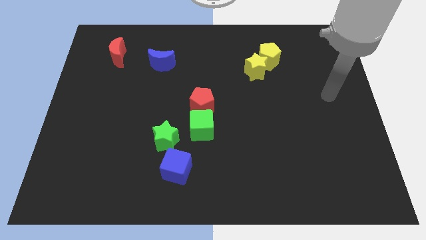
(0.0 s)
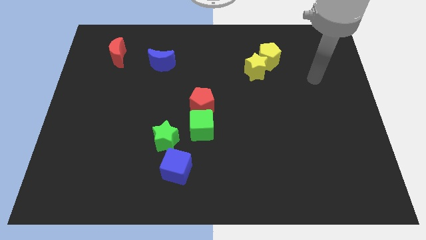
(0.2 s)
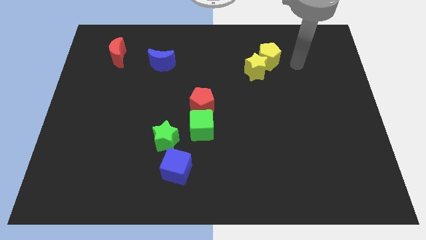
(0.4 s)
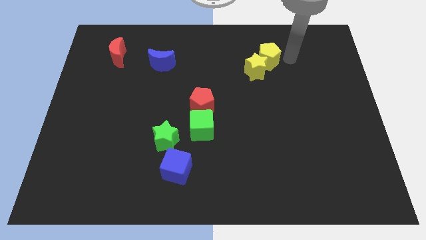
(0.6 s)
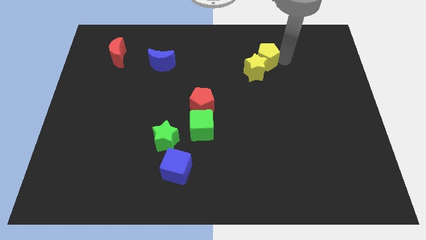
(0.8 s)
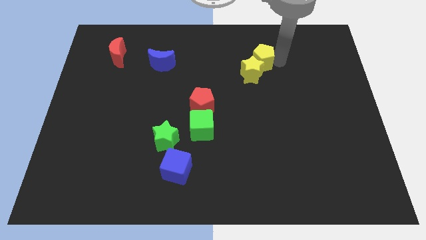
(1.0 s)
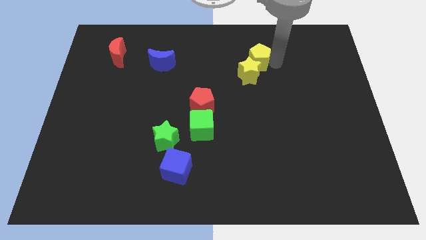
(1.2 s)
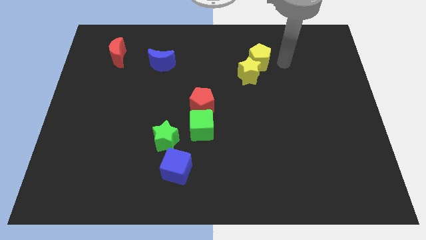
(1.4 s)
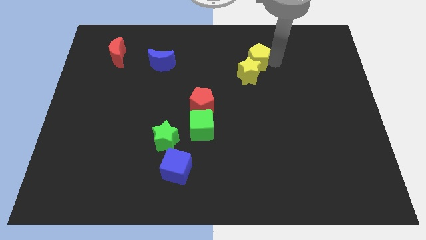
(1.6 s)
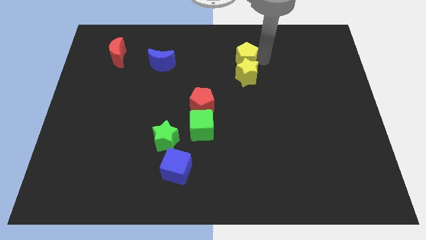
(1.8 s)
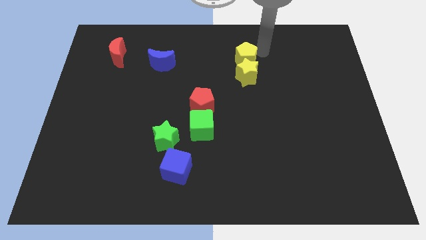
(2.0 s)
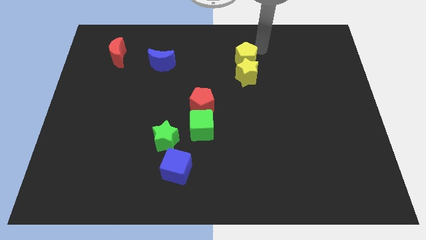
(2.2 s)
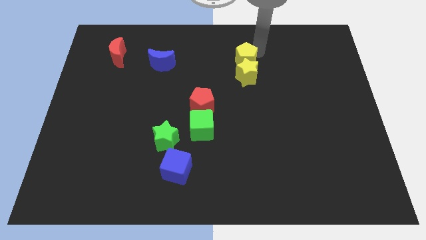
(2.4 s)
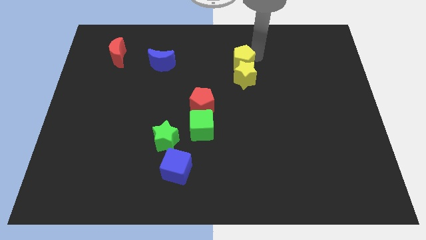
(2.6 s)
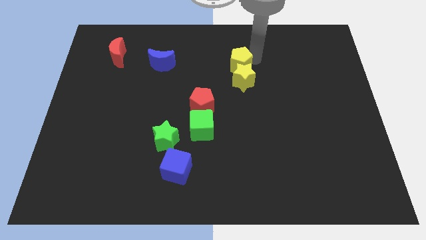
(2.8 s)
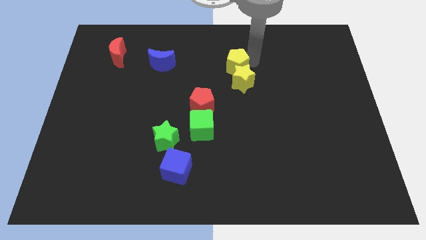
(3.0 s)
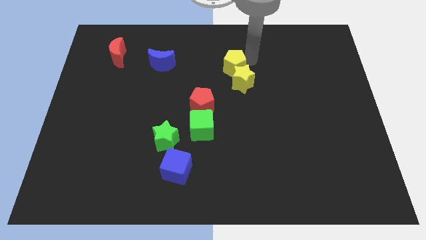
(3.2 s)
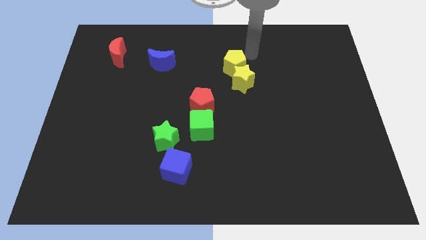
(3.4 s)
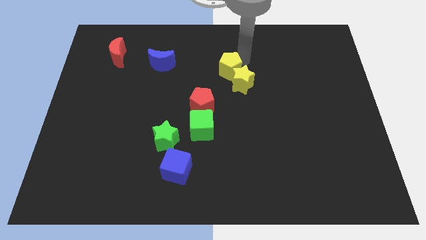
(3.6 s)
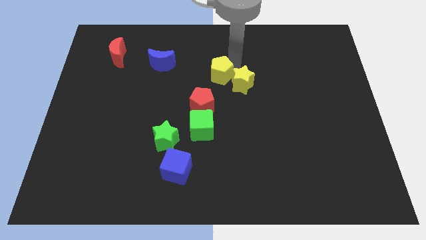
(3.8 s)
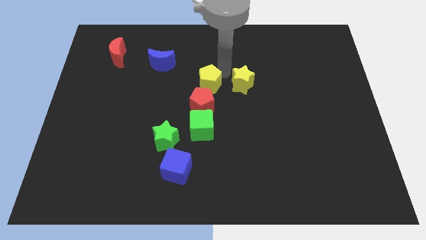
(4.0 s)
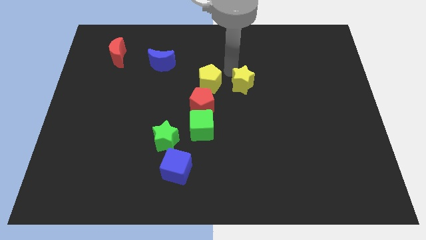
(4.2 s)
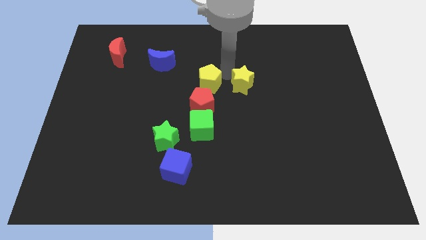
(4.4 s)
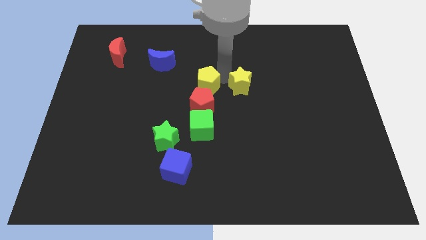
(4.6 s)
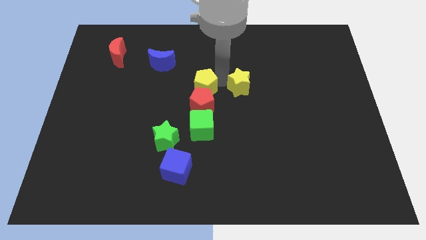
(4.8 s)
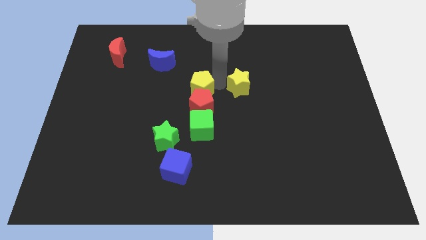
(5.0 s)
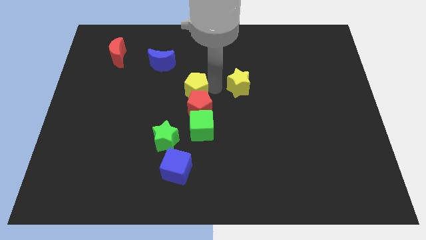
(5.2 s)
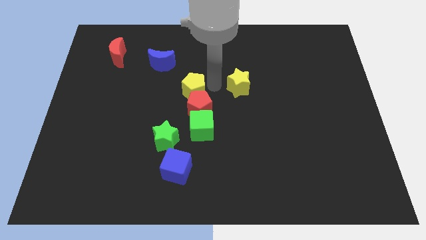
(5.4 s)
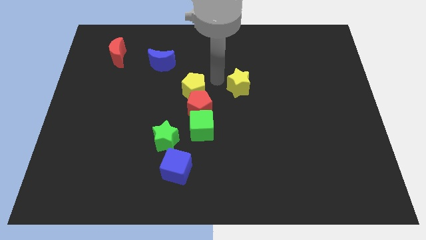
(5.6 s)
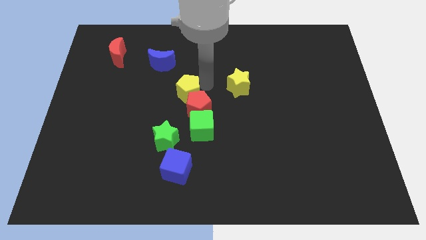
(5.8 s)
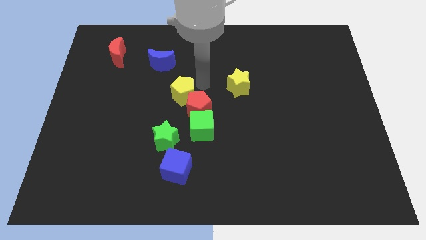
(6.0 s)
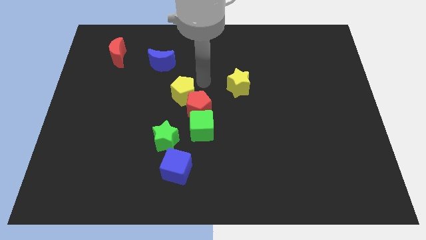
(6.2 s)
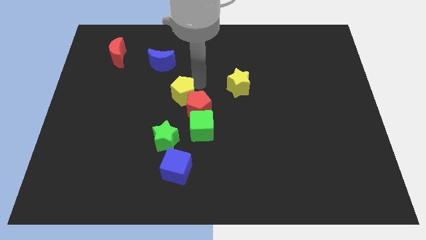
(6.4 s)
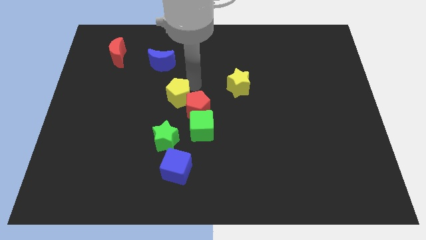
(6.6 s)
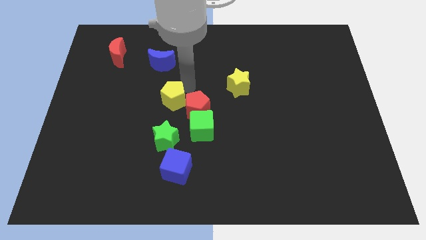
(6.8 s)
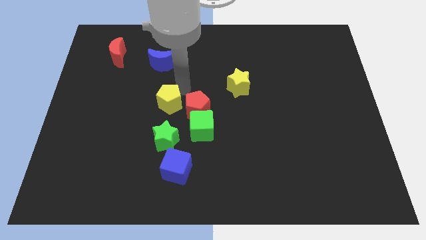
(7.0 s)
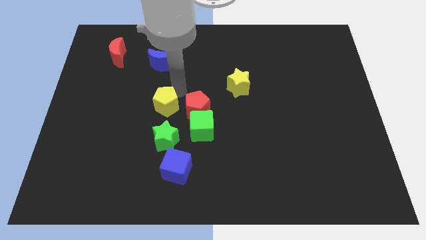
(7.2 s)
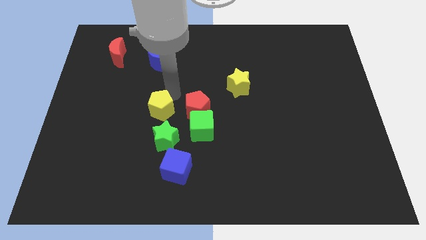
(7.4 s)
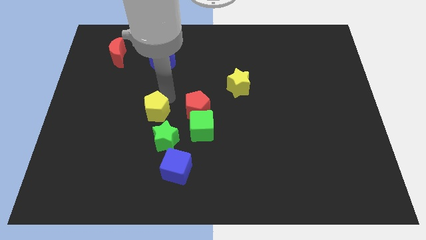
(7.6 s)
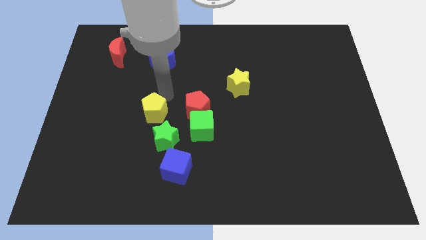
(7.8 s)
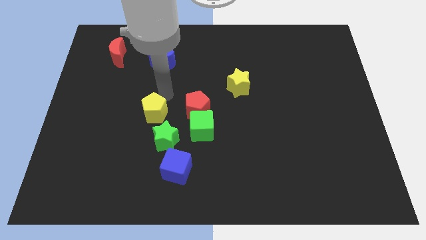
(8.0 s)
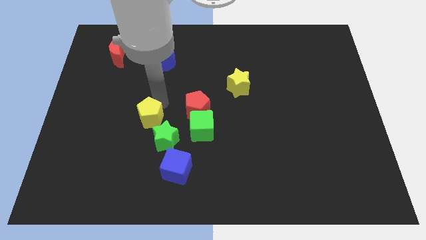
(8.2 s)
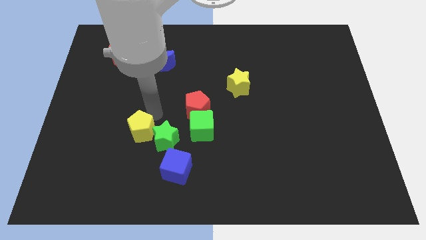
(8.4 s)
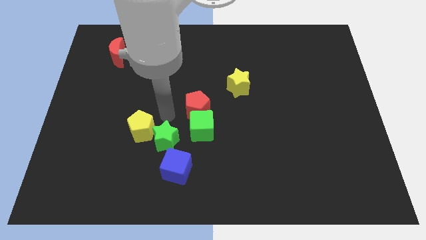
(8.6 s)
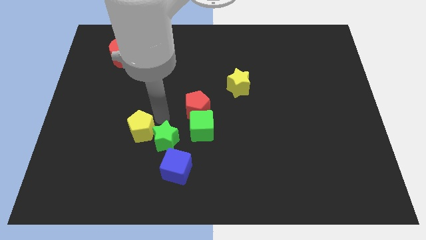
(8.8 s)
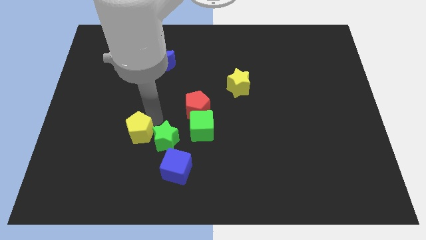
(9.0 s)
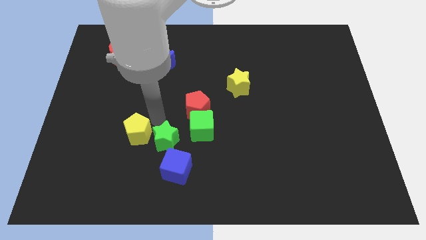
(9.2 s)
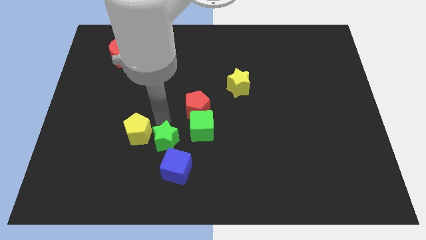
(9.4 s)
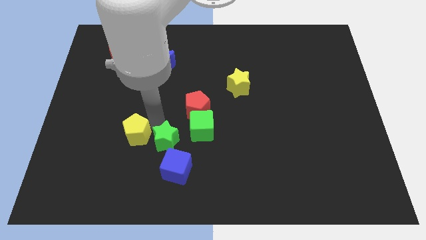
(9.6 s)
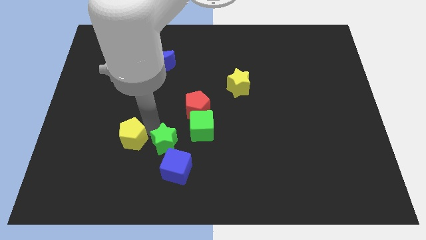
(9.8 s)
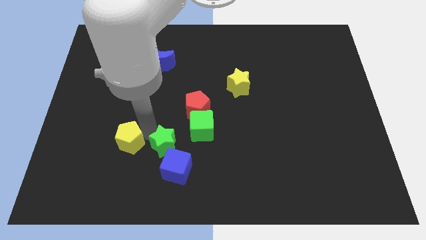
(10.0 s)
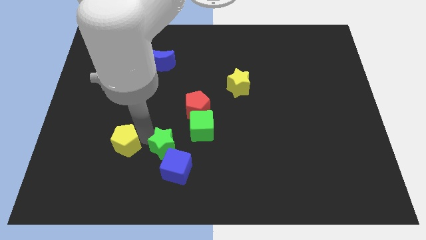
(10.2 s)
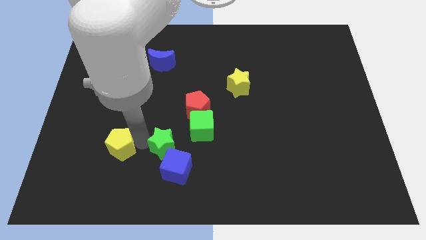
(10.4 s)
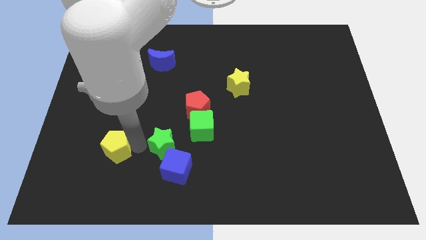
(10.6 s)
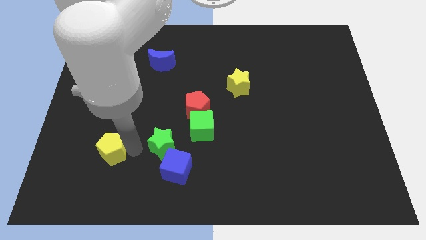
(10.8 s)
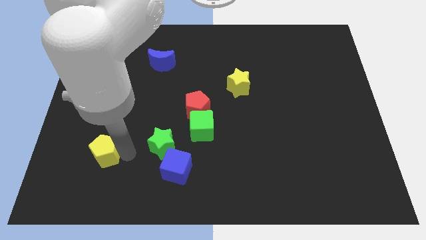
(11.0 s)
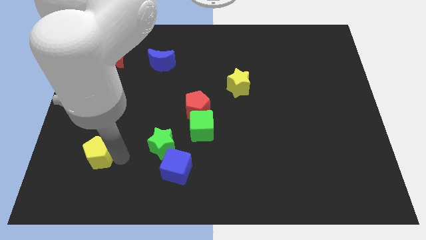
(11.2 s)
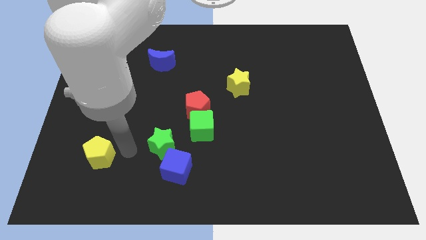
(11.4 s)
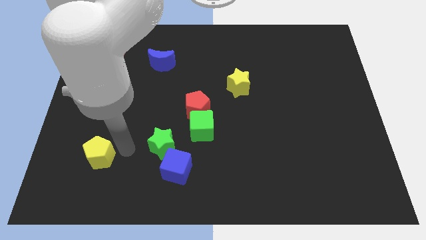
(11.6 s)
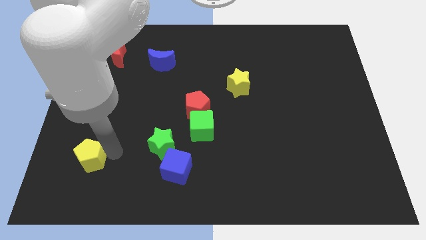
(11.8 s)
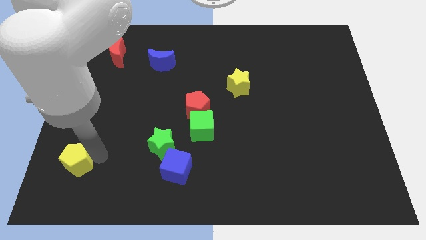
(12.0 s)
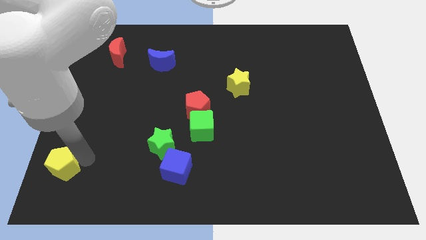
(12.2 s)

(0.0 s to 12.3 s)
slide the yellow pentagon to the bottom left
